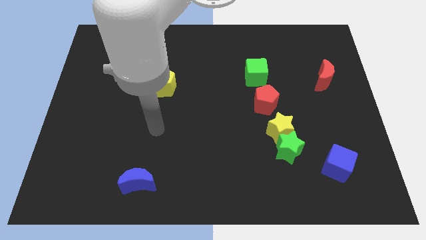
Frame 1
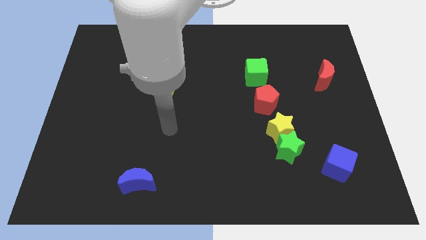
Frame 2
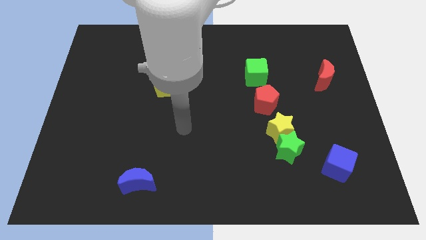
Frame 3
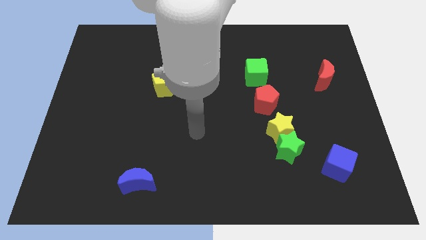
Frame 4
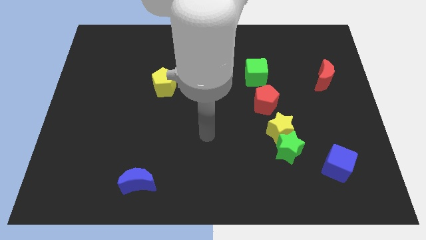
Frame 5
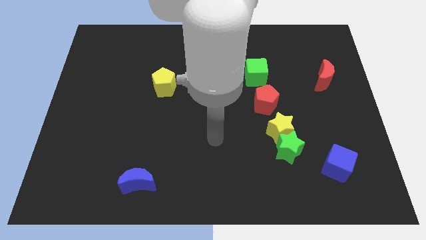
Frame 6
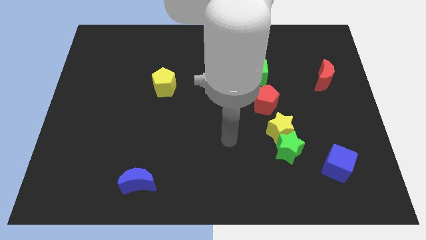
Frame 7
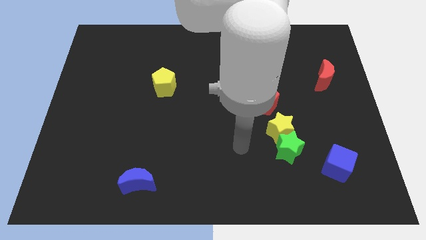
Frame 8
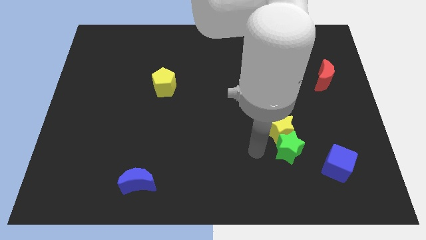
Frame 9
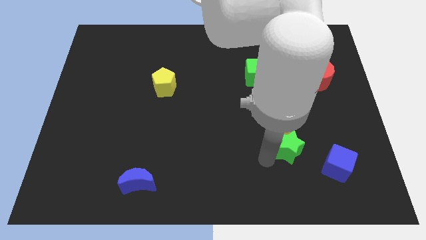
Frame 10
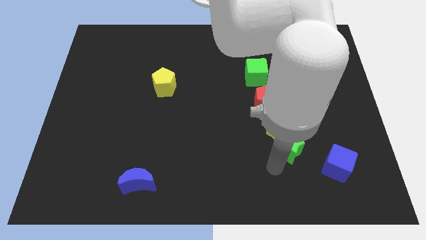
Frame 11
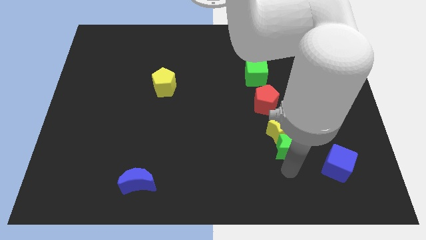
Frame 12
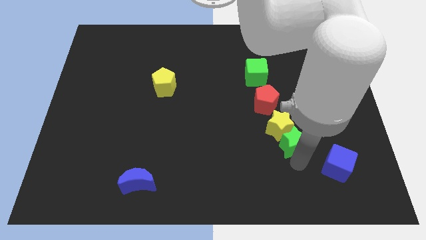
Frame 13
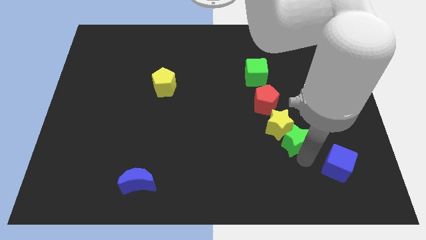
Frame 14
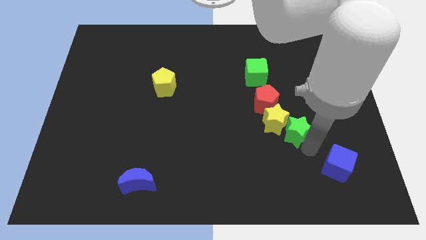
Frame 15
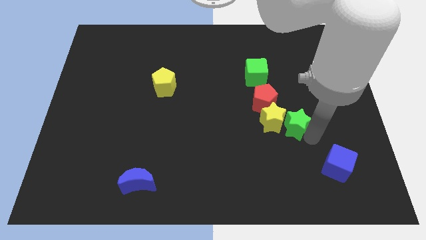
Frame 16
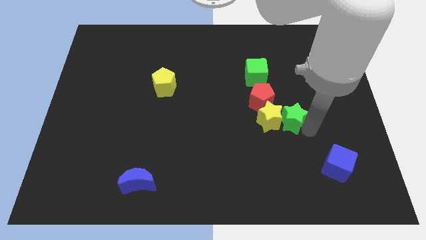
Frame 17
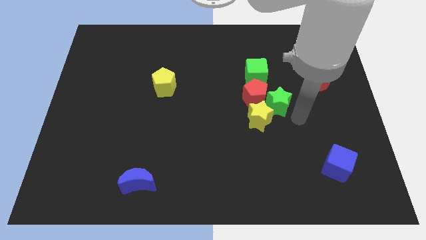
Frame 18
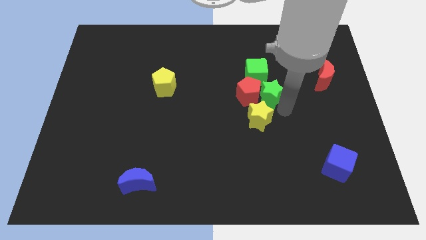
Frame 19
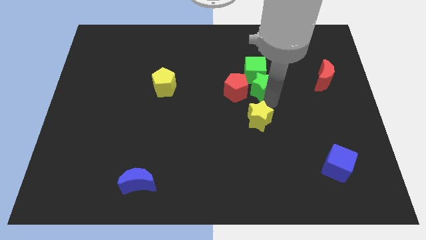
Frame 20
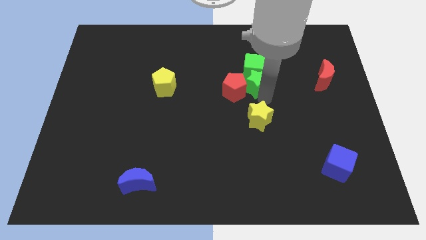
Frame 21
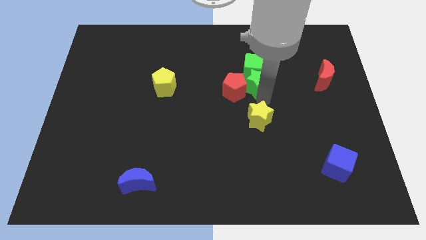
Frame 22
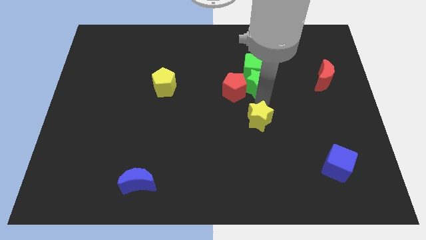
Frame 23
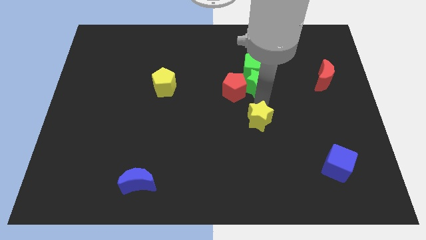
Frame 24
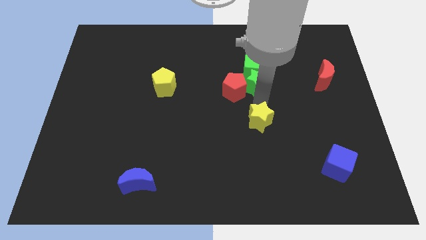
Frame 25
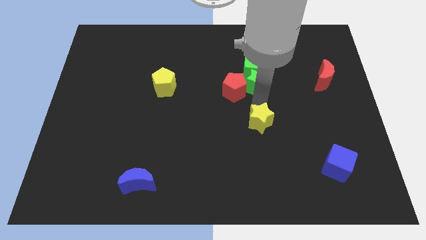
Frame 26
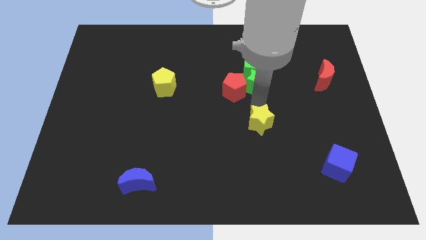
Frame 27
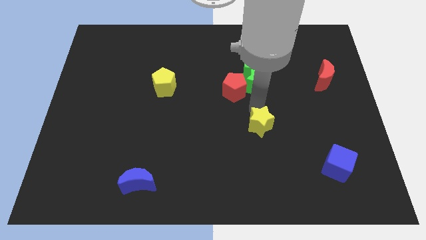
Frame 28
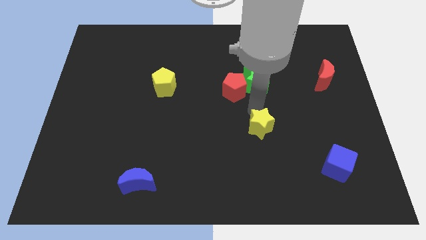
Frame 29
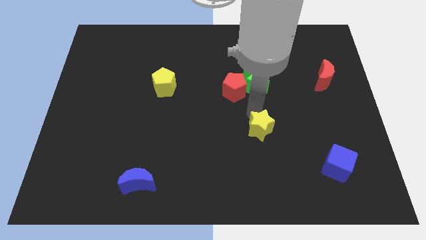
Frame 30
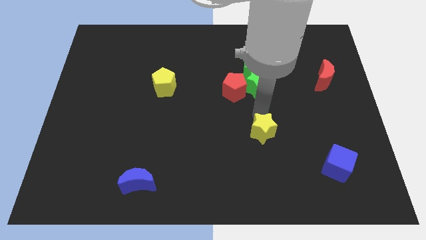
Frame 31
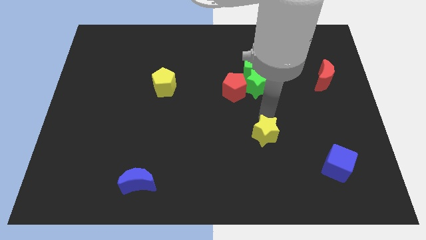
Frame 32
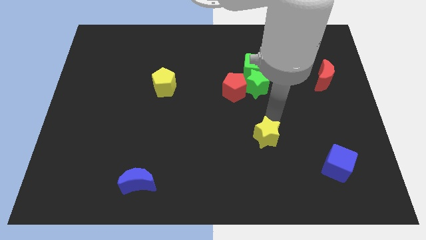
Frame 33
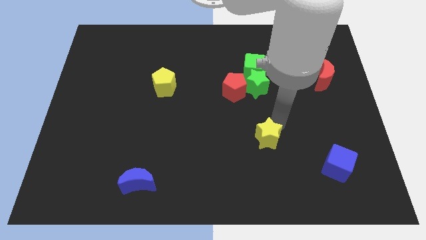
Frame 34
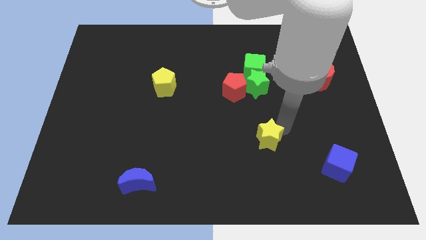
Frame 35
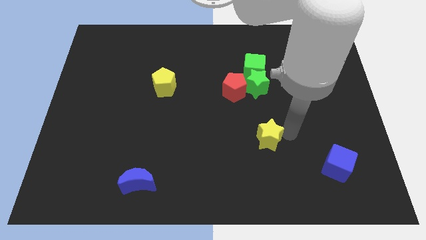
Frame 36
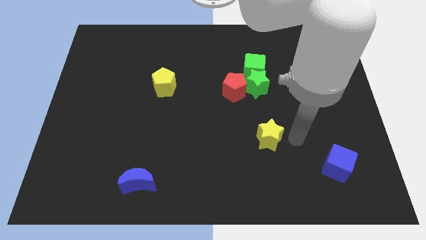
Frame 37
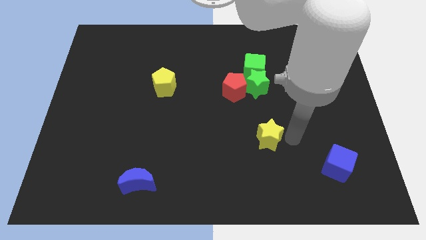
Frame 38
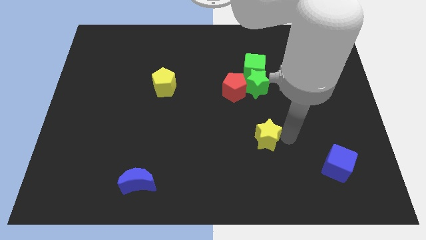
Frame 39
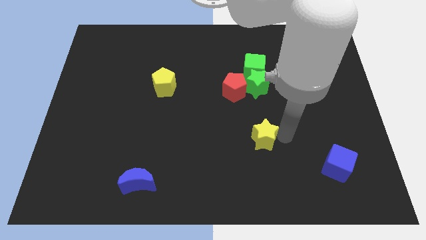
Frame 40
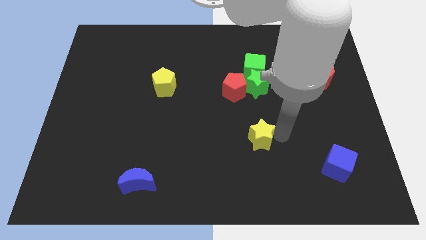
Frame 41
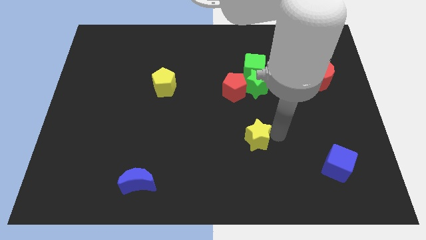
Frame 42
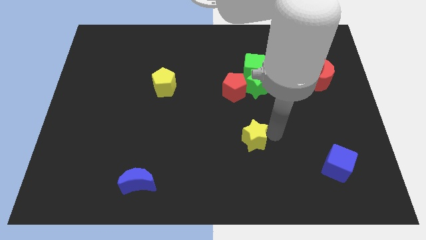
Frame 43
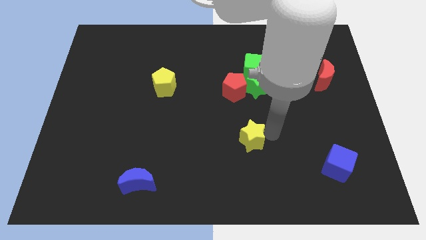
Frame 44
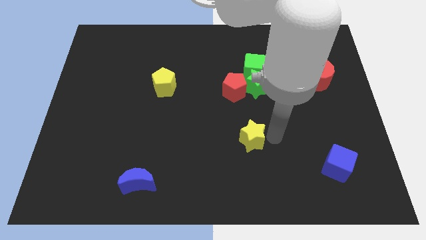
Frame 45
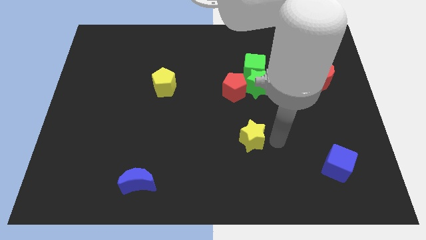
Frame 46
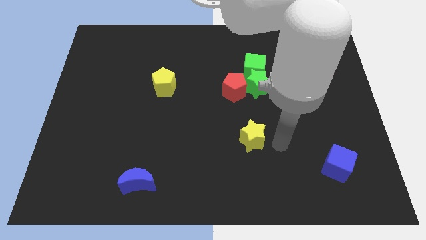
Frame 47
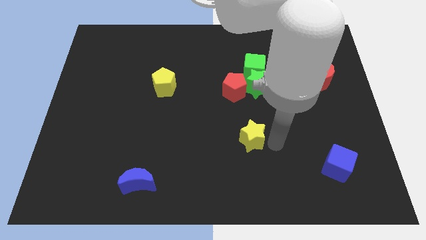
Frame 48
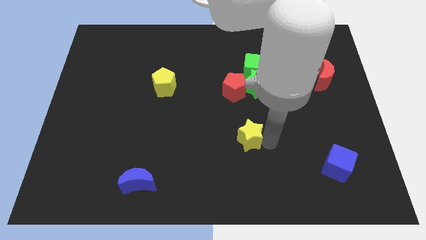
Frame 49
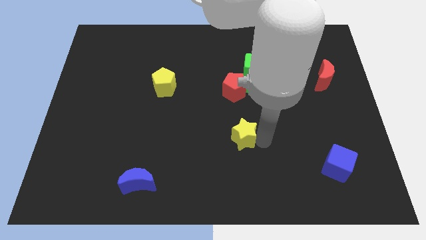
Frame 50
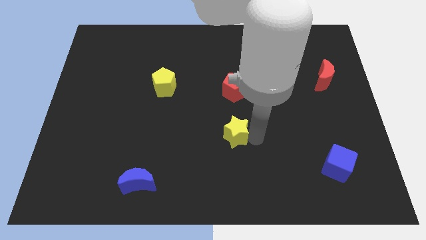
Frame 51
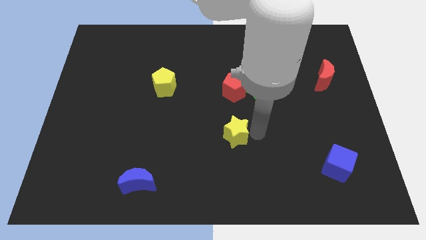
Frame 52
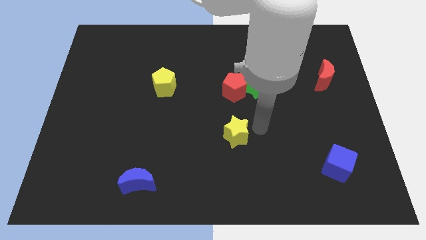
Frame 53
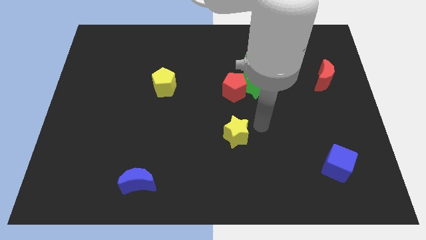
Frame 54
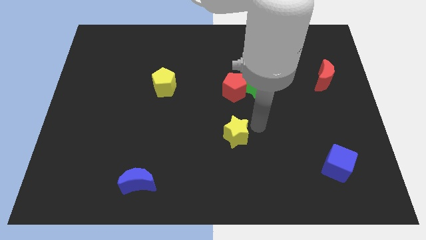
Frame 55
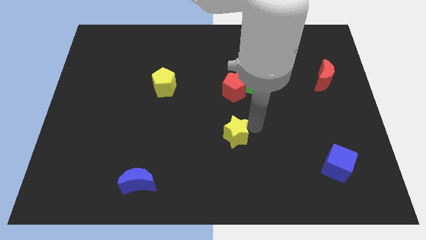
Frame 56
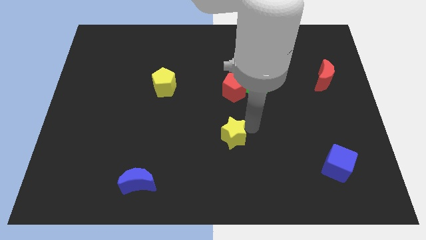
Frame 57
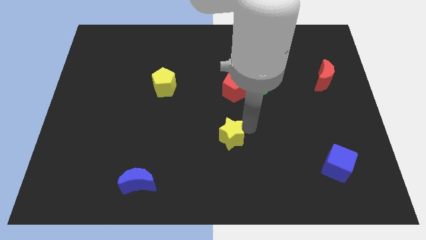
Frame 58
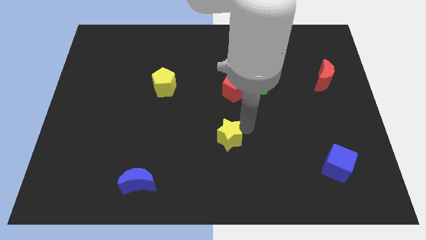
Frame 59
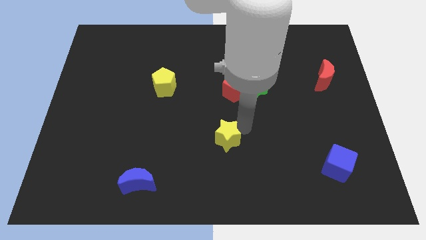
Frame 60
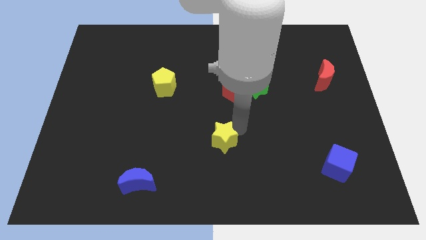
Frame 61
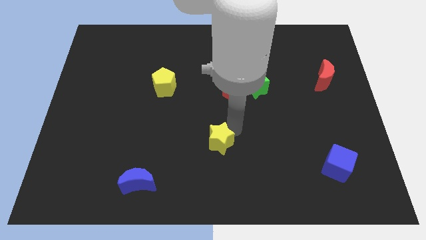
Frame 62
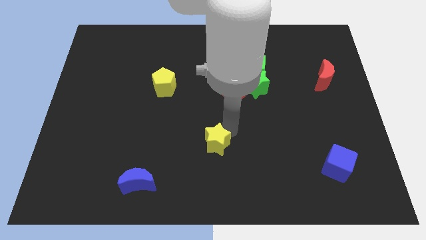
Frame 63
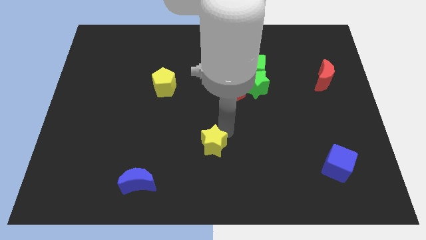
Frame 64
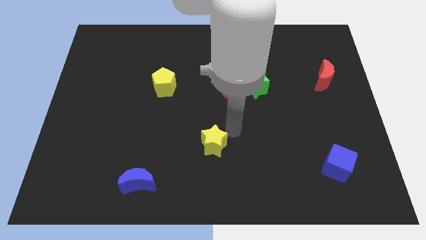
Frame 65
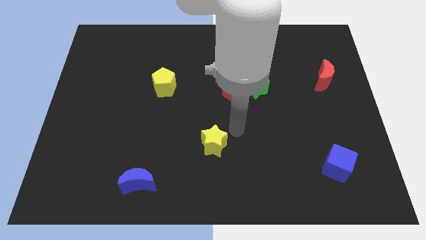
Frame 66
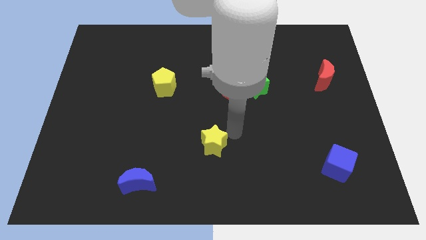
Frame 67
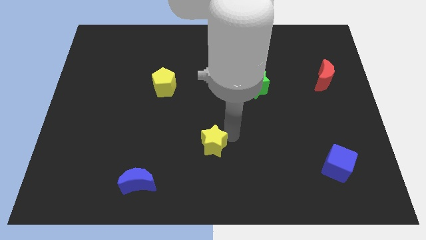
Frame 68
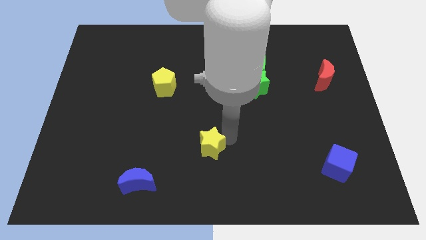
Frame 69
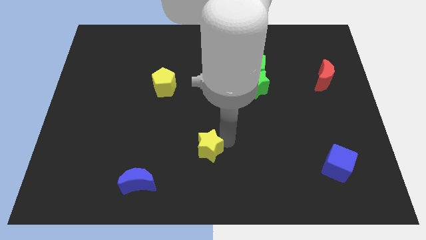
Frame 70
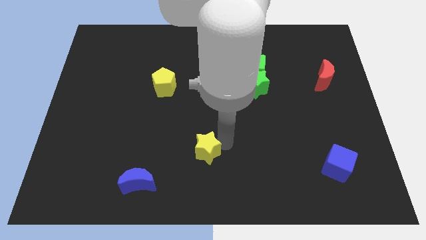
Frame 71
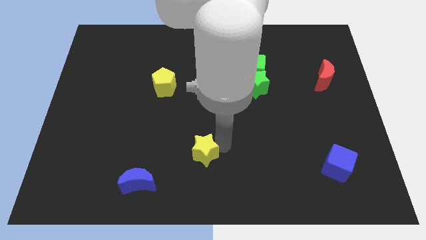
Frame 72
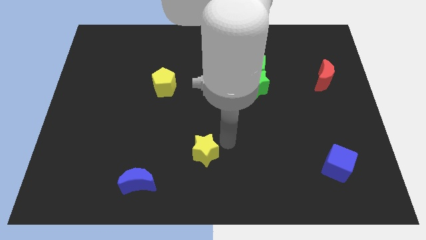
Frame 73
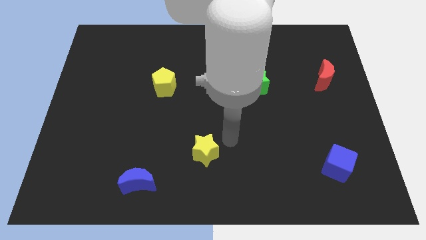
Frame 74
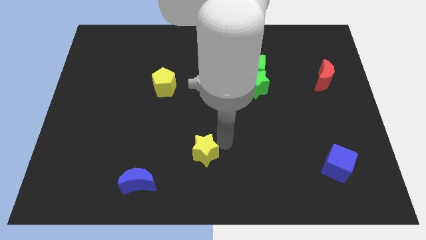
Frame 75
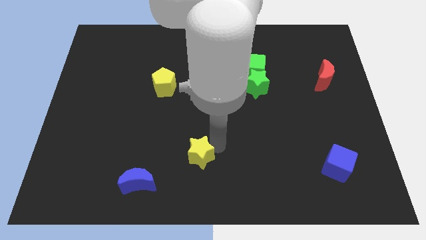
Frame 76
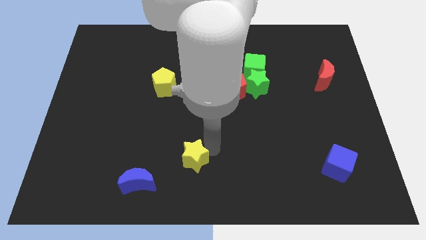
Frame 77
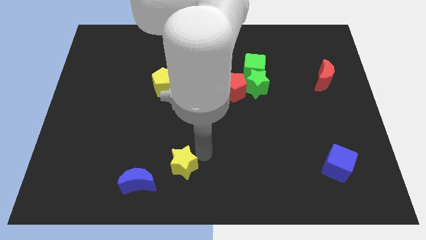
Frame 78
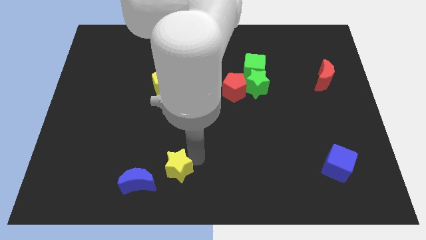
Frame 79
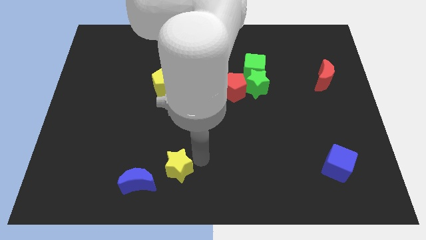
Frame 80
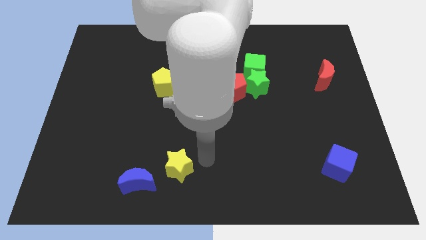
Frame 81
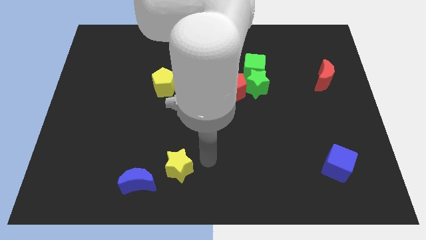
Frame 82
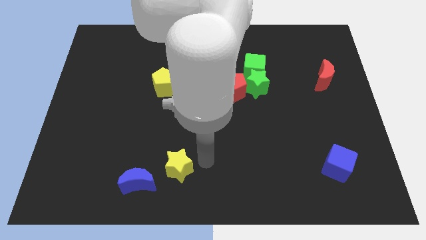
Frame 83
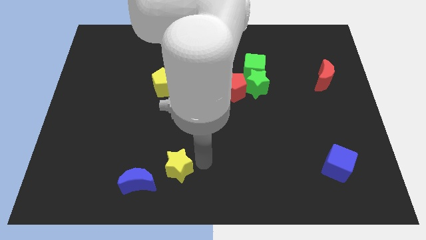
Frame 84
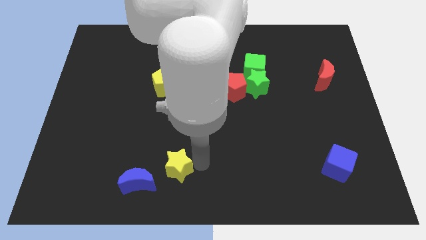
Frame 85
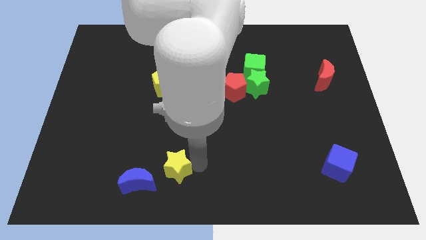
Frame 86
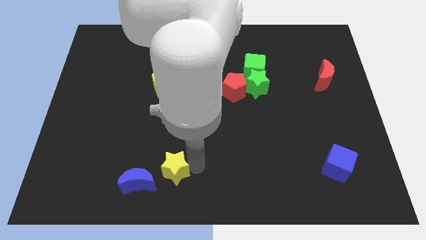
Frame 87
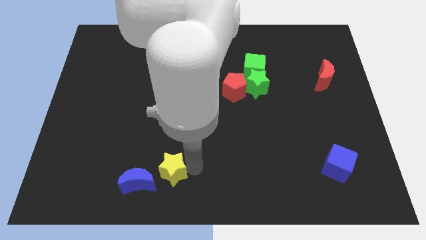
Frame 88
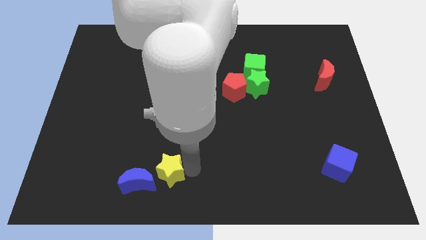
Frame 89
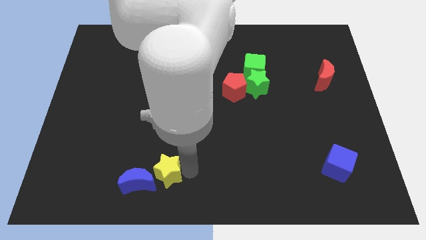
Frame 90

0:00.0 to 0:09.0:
push the yellow star towards the blue moon
